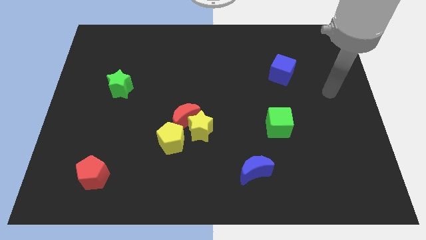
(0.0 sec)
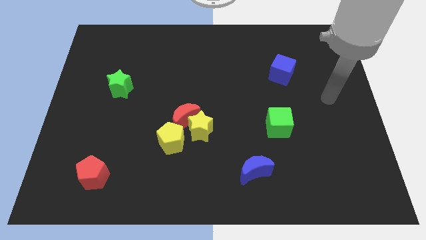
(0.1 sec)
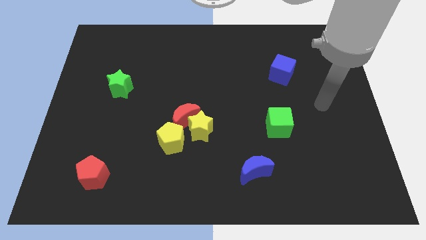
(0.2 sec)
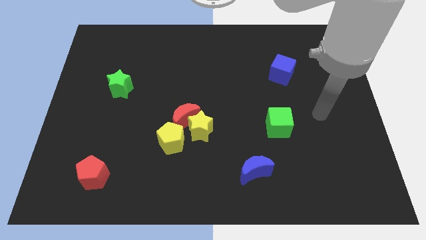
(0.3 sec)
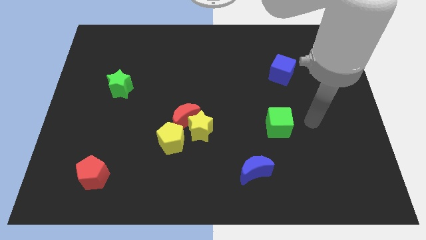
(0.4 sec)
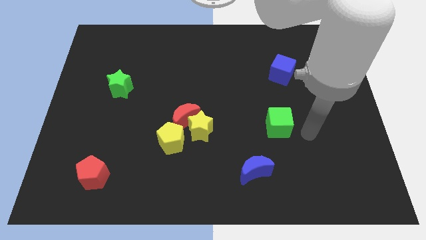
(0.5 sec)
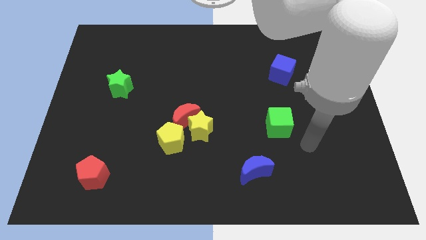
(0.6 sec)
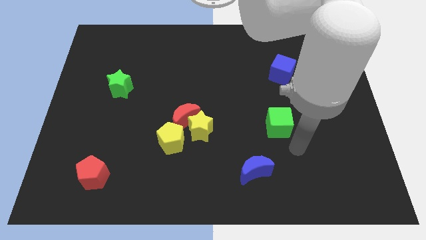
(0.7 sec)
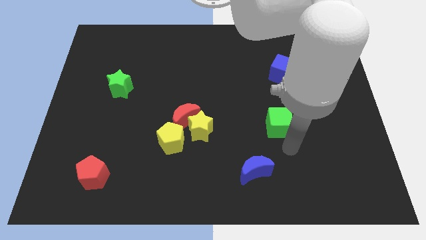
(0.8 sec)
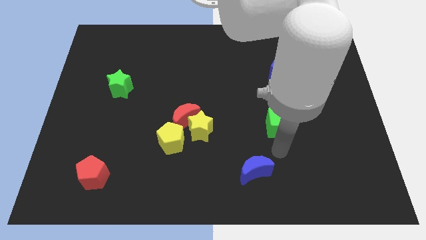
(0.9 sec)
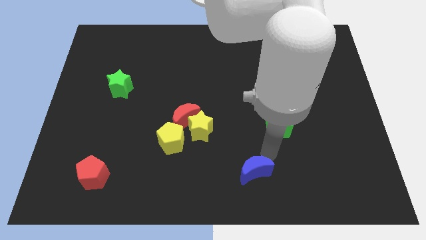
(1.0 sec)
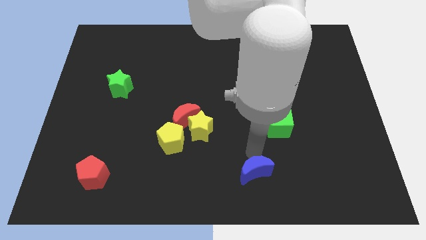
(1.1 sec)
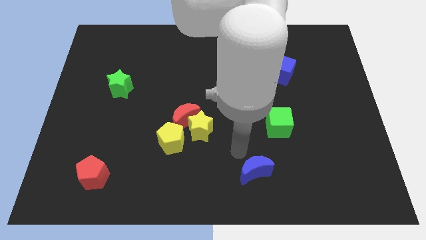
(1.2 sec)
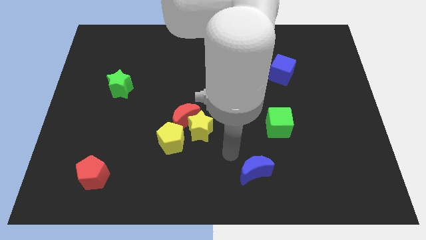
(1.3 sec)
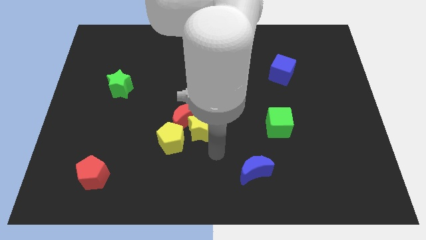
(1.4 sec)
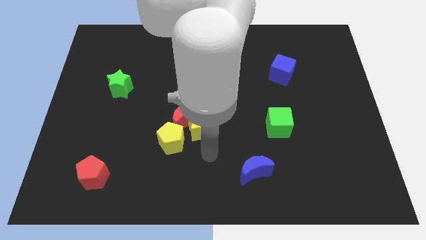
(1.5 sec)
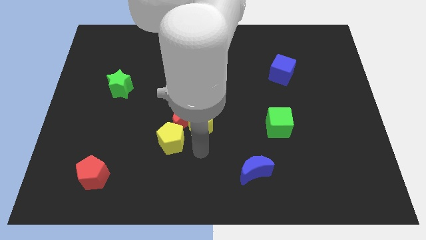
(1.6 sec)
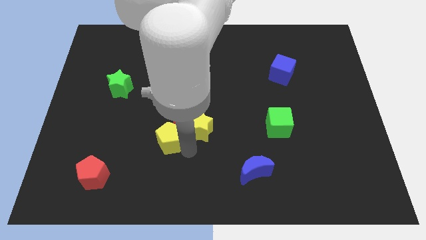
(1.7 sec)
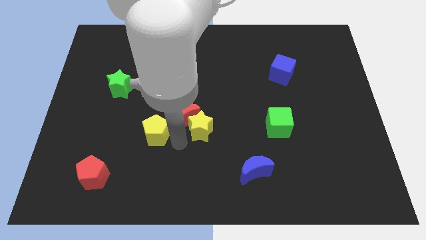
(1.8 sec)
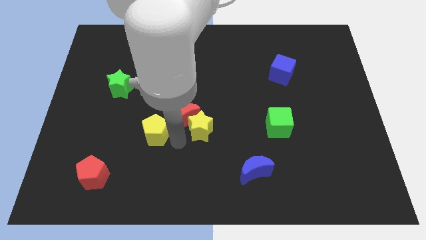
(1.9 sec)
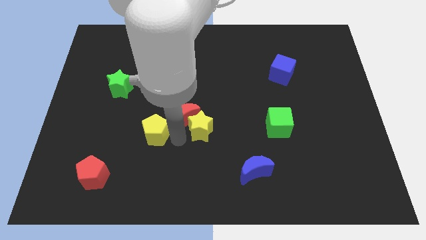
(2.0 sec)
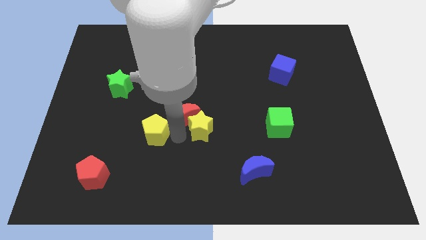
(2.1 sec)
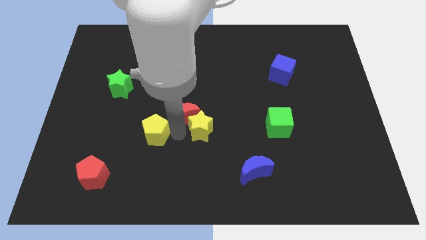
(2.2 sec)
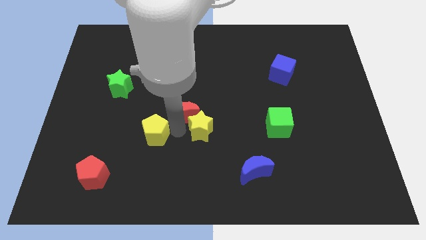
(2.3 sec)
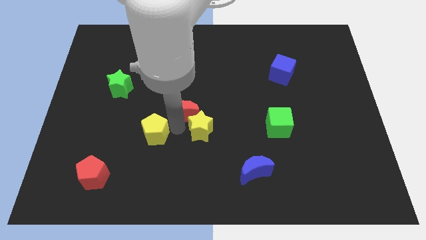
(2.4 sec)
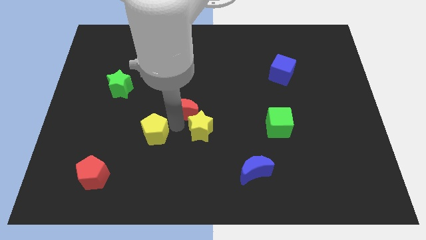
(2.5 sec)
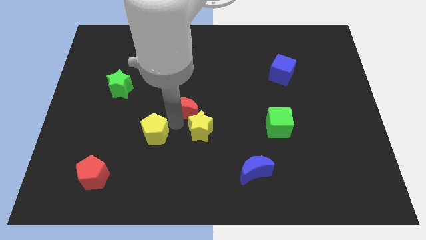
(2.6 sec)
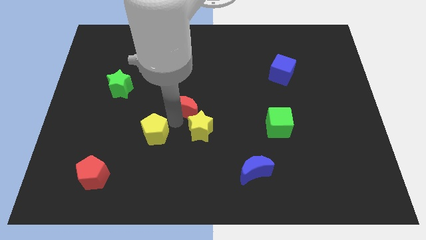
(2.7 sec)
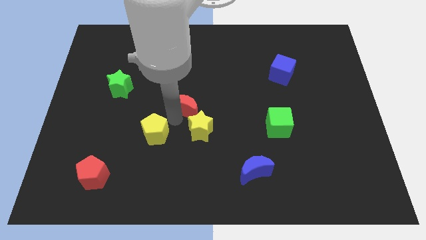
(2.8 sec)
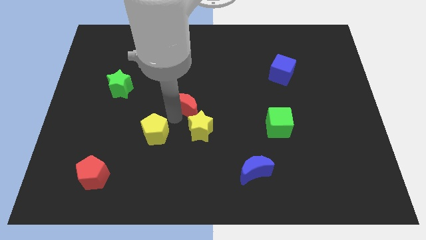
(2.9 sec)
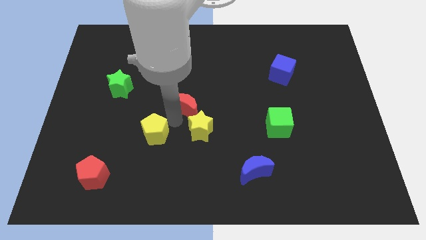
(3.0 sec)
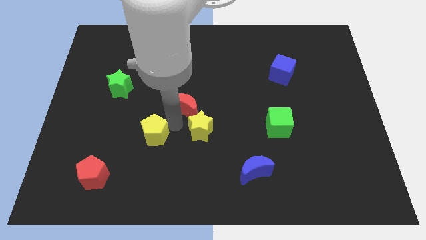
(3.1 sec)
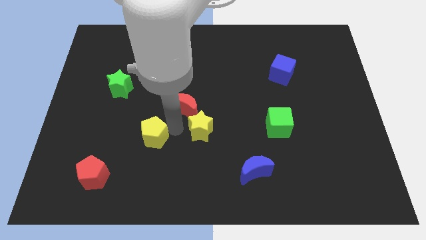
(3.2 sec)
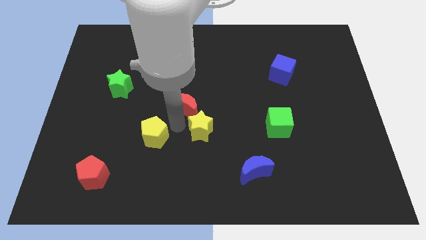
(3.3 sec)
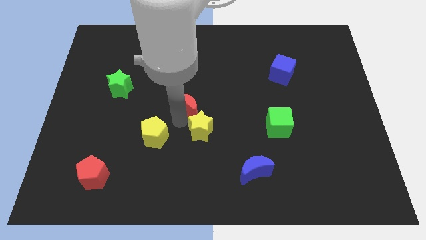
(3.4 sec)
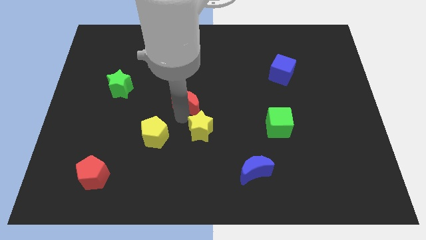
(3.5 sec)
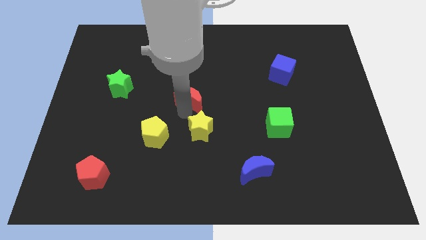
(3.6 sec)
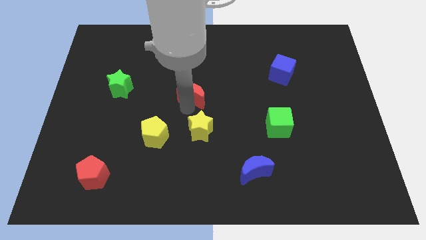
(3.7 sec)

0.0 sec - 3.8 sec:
pull the red moon apart from the yellow star and yellow pentagon

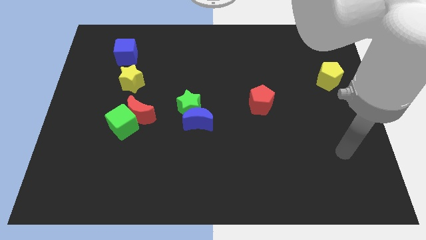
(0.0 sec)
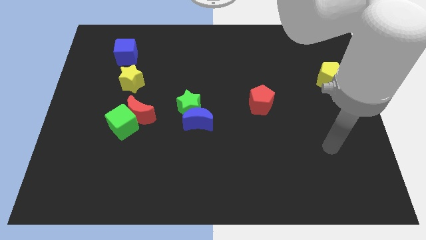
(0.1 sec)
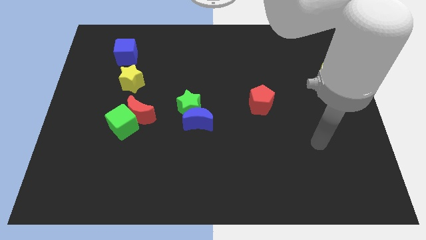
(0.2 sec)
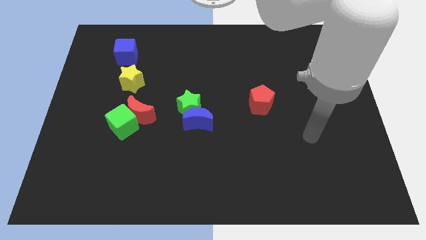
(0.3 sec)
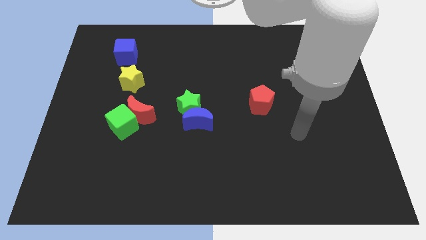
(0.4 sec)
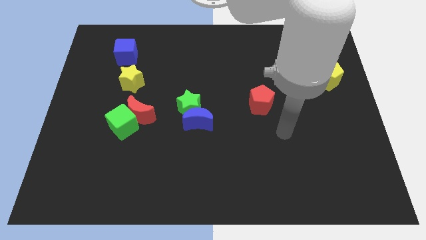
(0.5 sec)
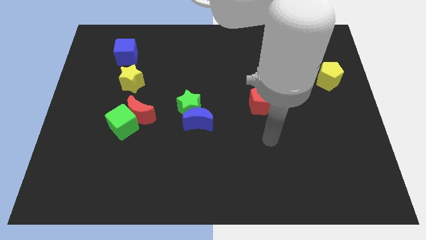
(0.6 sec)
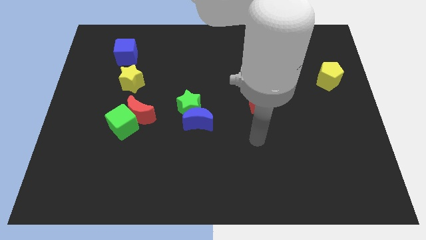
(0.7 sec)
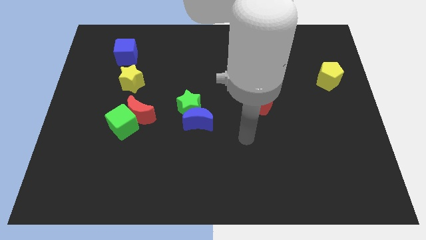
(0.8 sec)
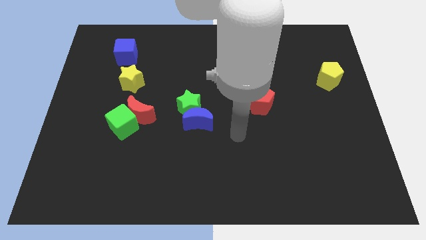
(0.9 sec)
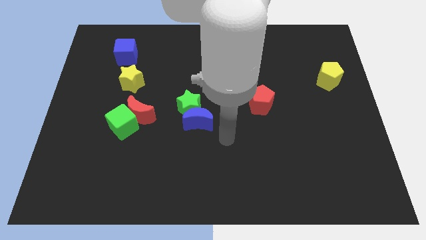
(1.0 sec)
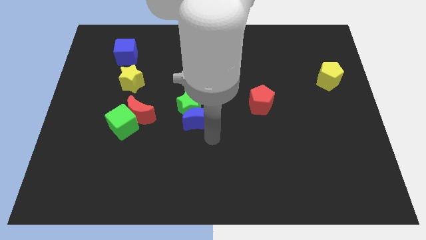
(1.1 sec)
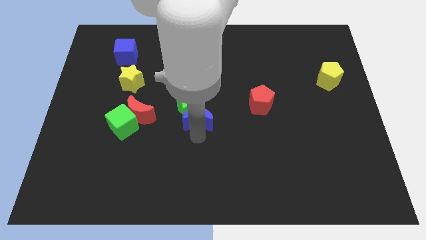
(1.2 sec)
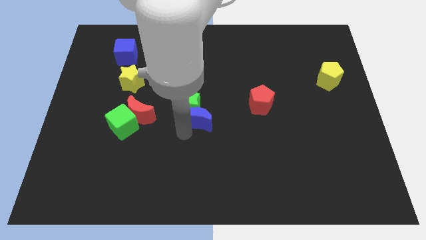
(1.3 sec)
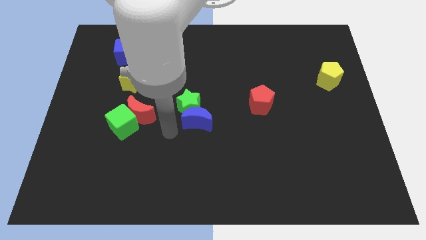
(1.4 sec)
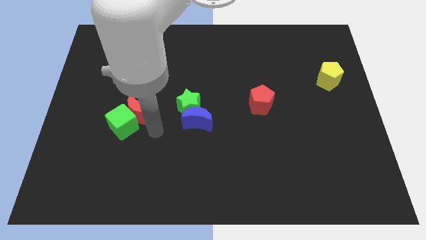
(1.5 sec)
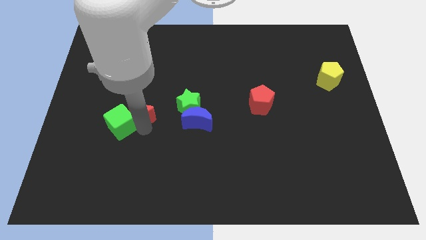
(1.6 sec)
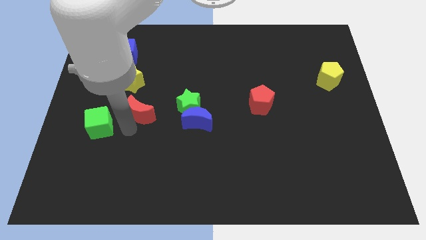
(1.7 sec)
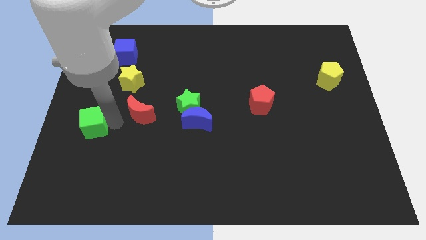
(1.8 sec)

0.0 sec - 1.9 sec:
separate the red moon from the green cube

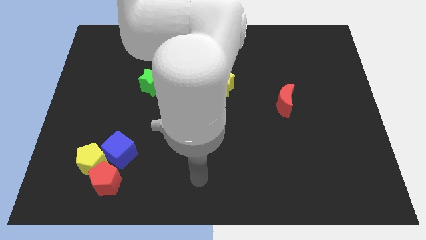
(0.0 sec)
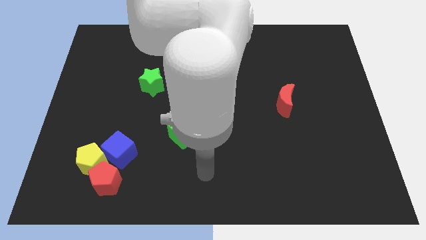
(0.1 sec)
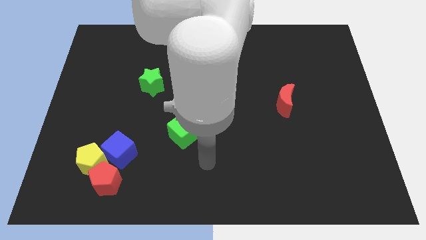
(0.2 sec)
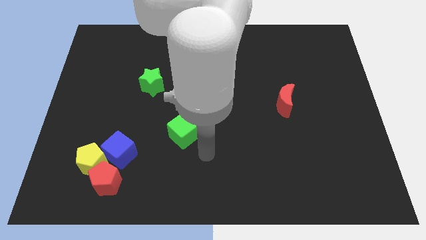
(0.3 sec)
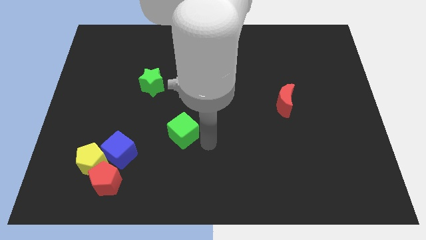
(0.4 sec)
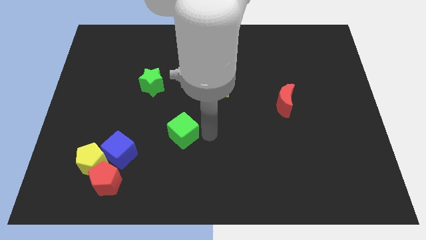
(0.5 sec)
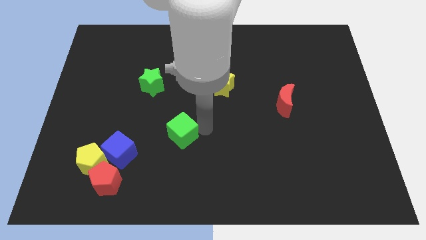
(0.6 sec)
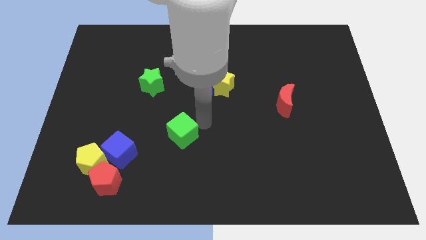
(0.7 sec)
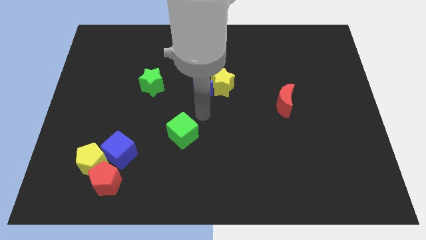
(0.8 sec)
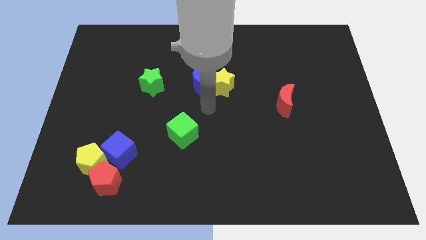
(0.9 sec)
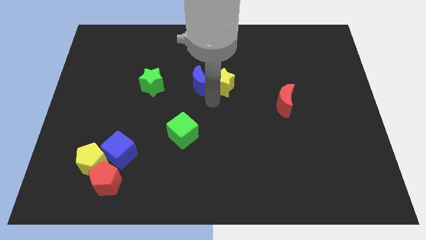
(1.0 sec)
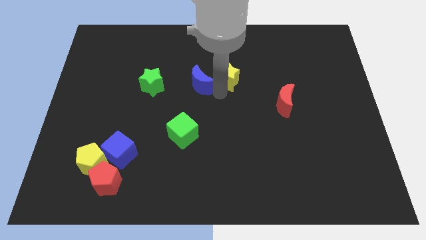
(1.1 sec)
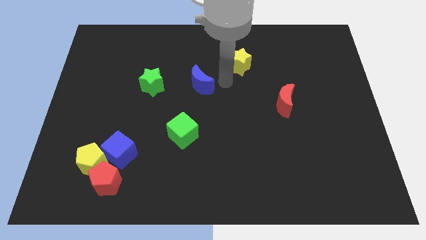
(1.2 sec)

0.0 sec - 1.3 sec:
move the blue moon away from the yellow star

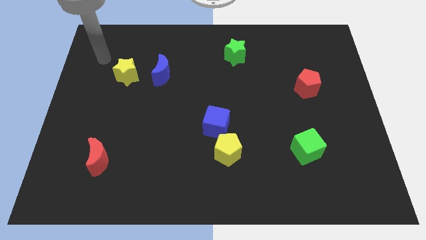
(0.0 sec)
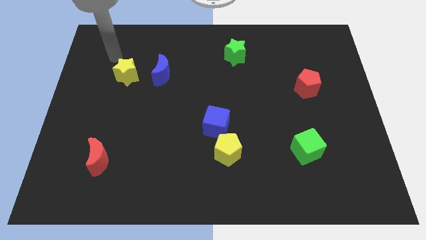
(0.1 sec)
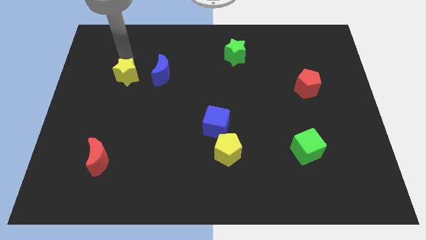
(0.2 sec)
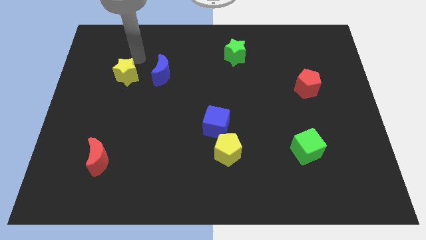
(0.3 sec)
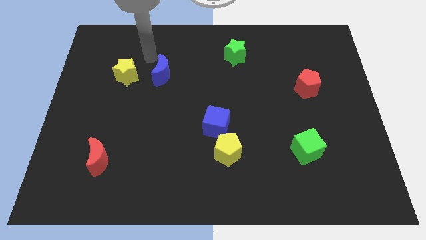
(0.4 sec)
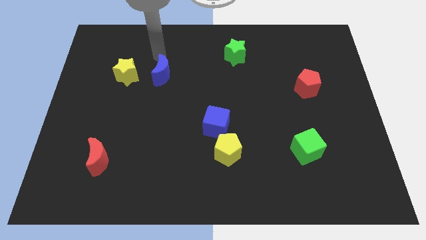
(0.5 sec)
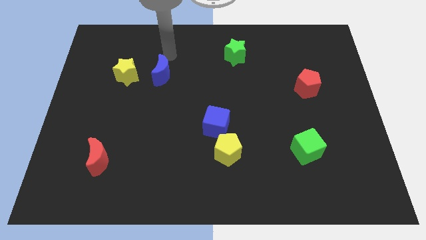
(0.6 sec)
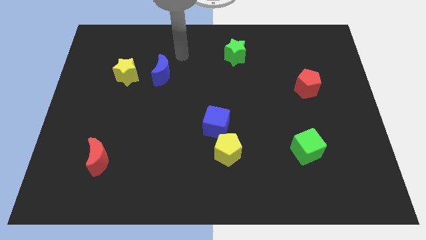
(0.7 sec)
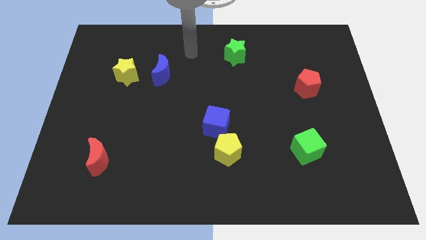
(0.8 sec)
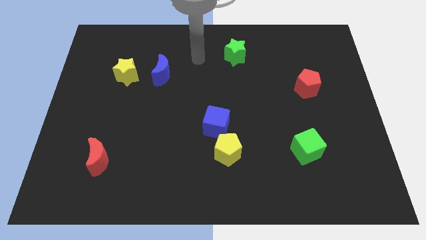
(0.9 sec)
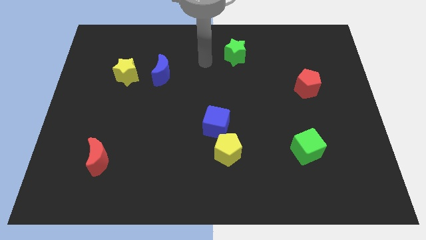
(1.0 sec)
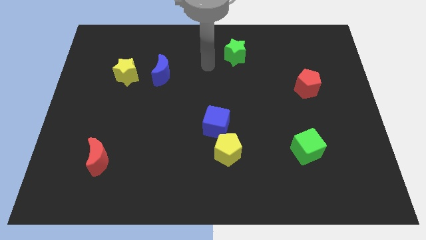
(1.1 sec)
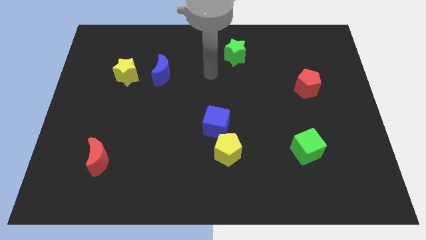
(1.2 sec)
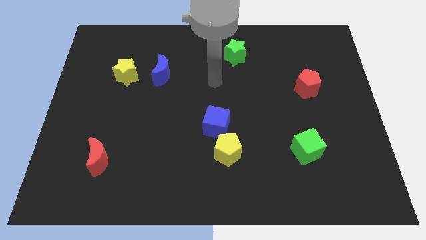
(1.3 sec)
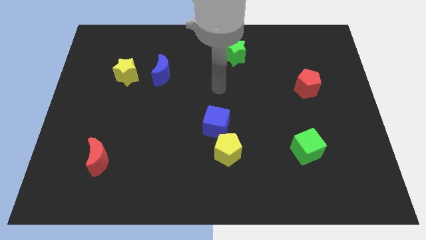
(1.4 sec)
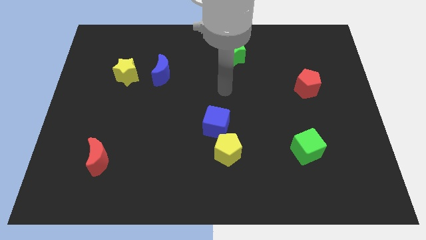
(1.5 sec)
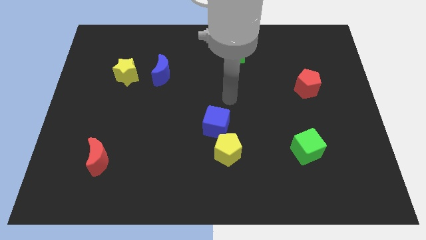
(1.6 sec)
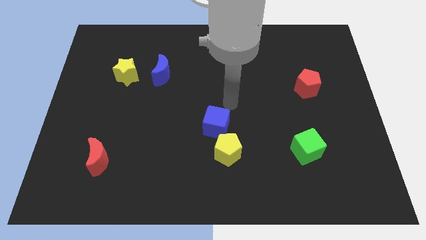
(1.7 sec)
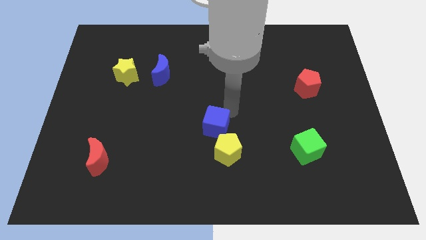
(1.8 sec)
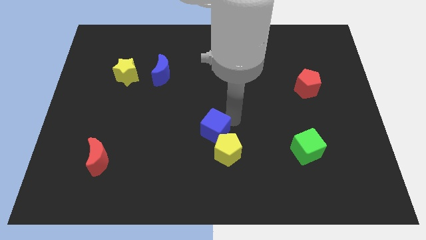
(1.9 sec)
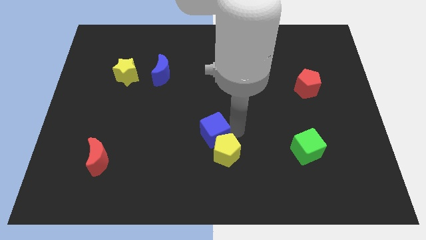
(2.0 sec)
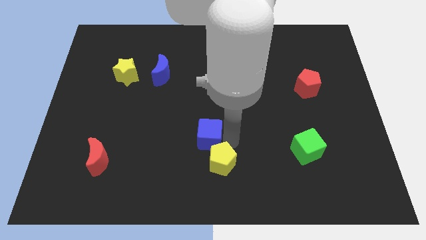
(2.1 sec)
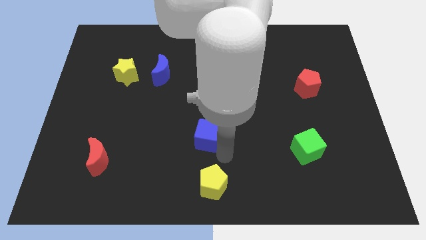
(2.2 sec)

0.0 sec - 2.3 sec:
move the blue cube away from the yellow pentagon

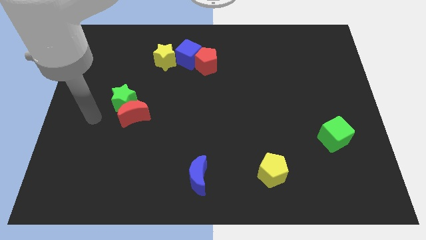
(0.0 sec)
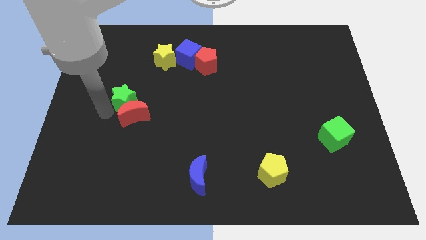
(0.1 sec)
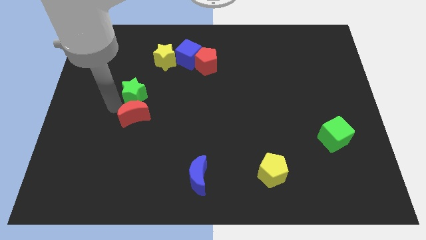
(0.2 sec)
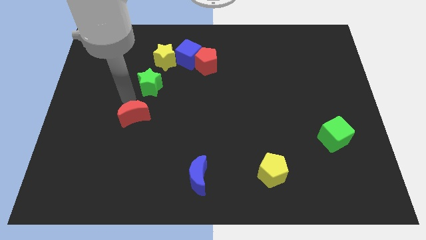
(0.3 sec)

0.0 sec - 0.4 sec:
separate the red moon from the green star
